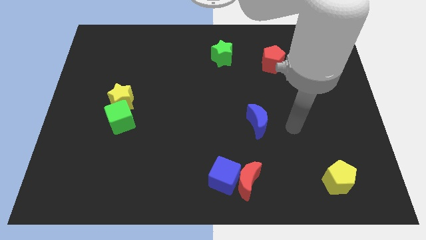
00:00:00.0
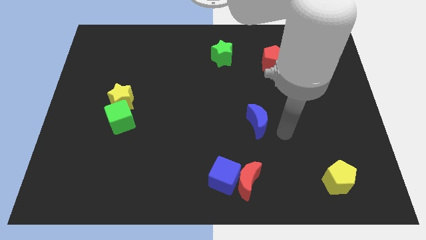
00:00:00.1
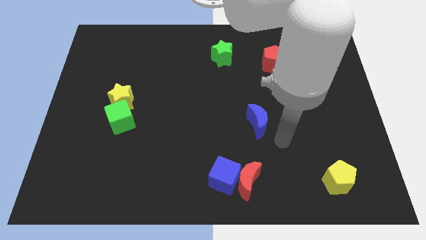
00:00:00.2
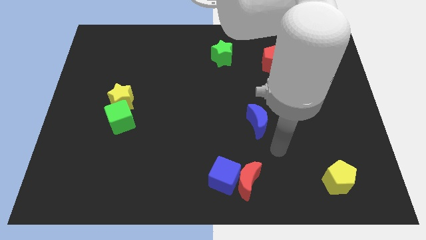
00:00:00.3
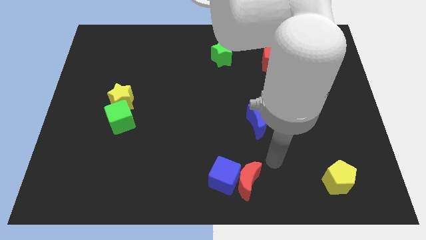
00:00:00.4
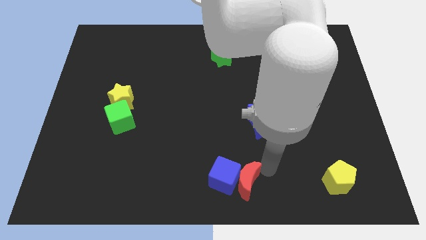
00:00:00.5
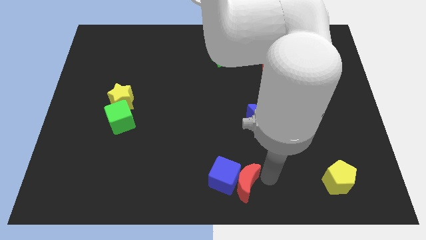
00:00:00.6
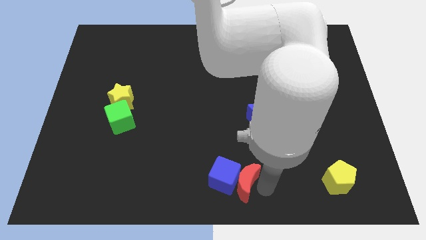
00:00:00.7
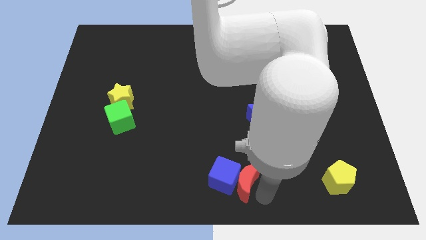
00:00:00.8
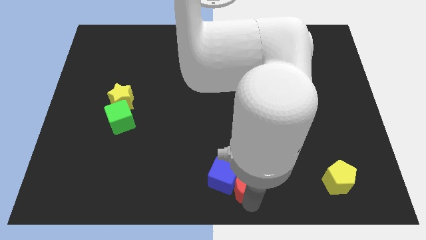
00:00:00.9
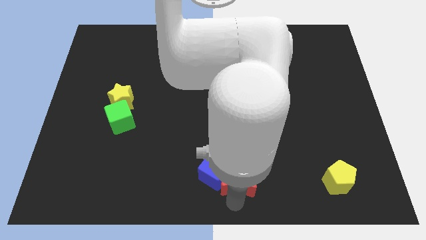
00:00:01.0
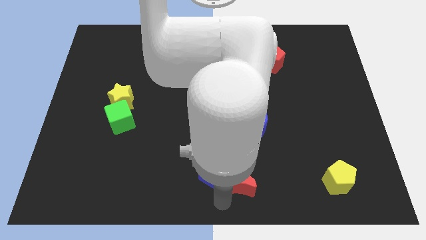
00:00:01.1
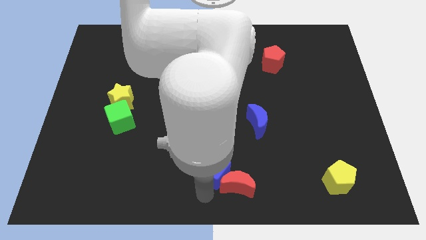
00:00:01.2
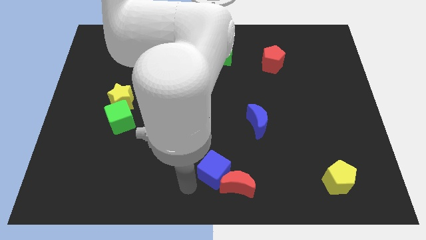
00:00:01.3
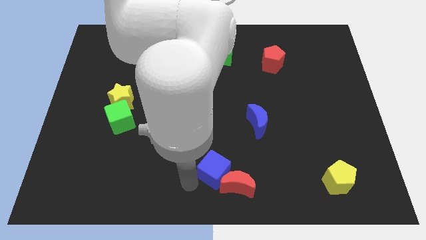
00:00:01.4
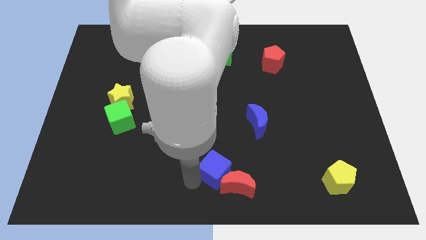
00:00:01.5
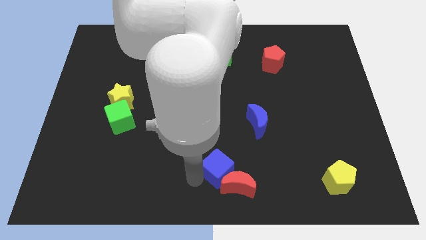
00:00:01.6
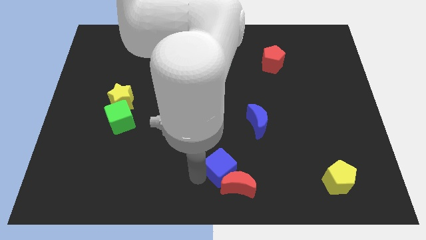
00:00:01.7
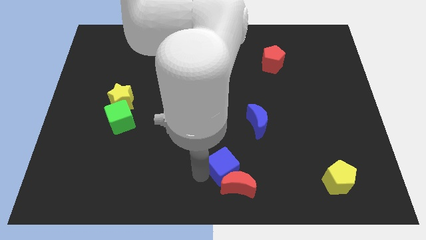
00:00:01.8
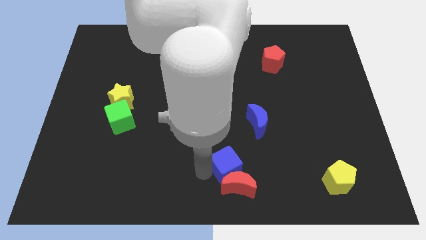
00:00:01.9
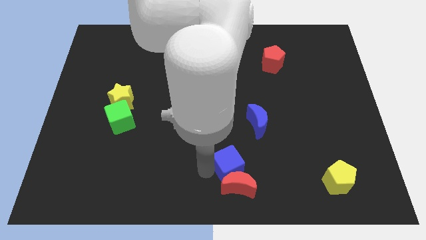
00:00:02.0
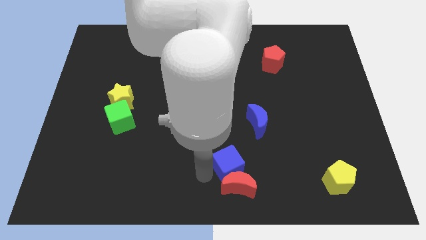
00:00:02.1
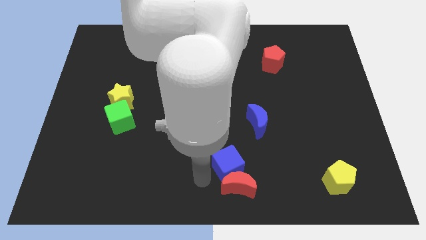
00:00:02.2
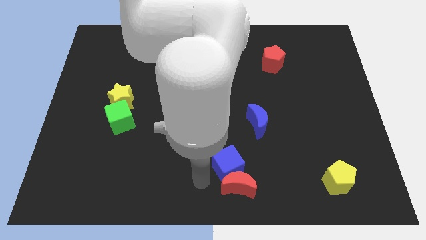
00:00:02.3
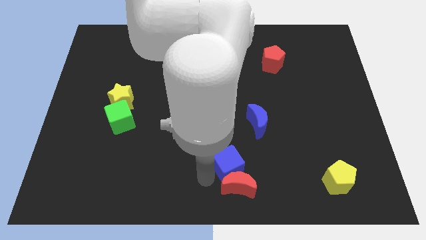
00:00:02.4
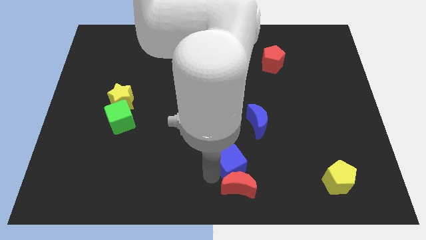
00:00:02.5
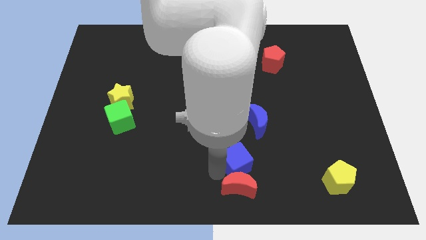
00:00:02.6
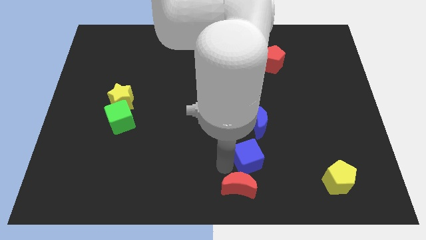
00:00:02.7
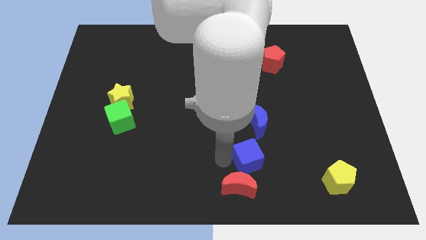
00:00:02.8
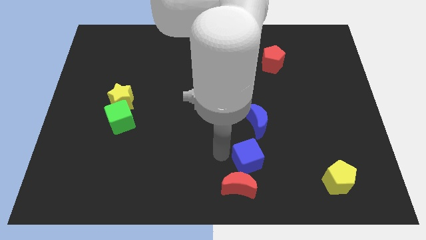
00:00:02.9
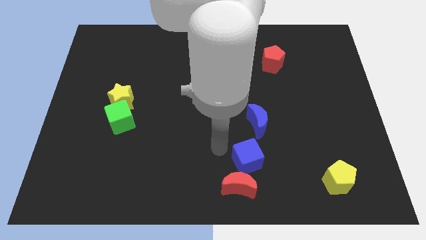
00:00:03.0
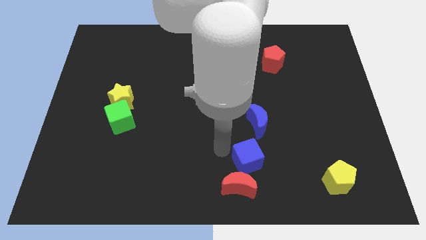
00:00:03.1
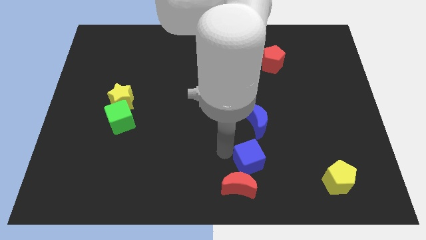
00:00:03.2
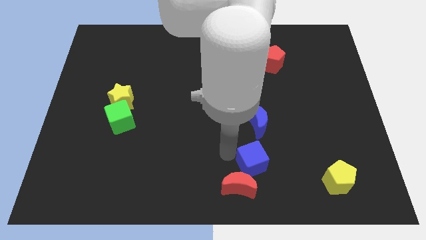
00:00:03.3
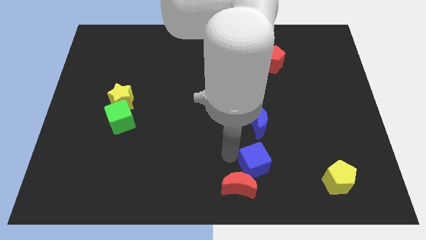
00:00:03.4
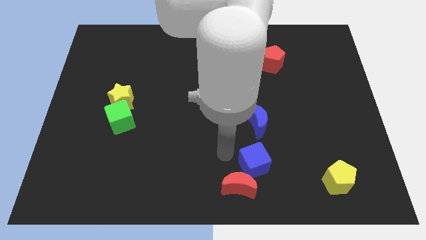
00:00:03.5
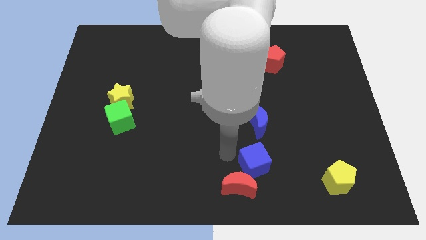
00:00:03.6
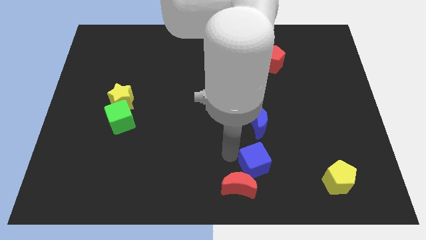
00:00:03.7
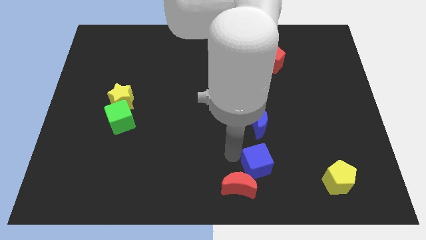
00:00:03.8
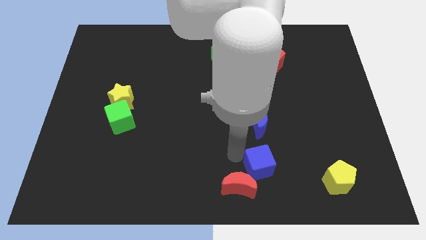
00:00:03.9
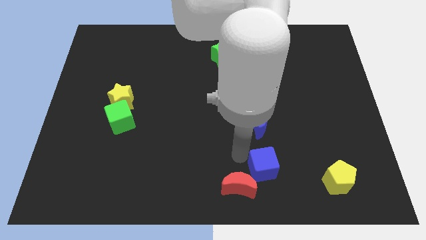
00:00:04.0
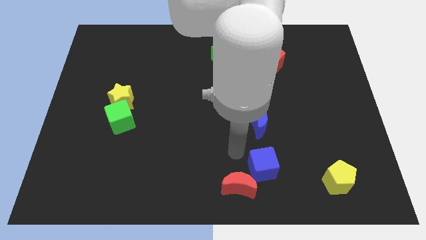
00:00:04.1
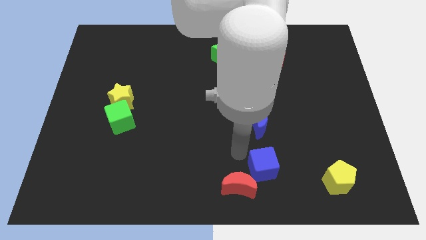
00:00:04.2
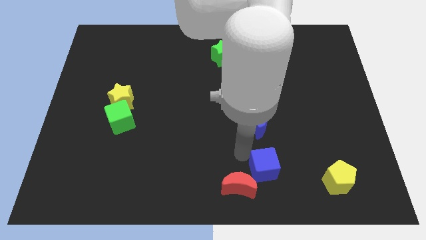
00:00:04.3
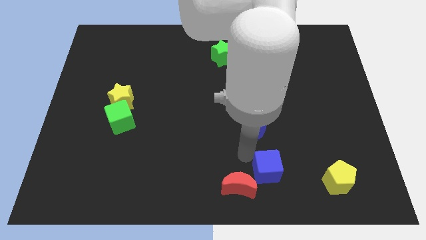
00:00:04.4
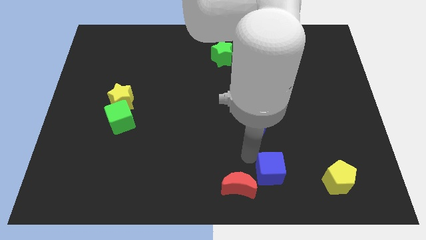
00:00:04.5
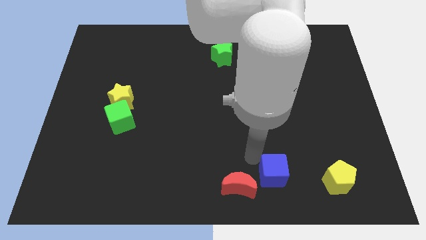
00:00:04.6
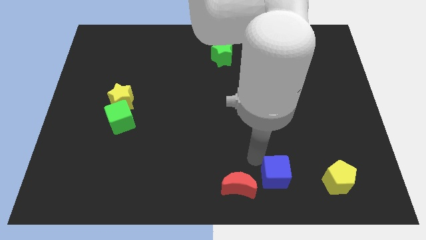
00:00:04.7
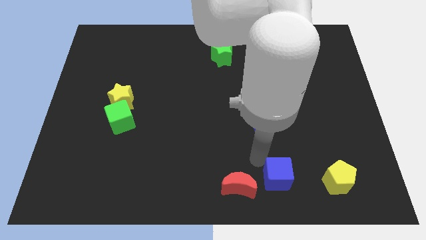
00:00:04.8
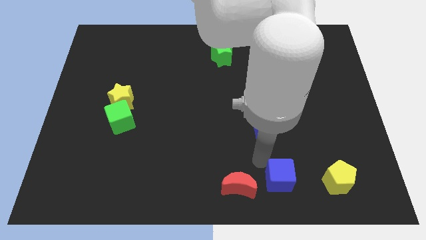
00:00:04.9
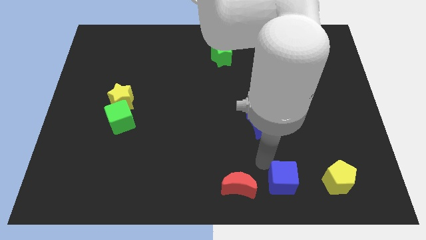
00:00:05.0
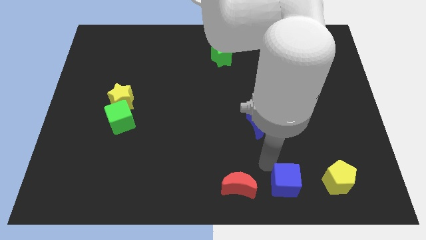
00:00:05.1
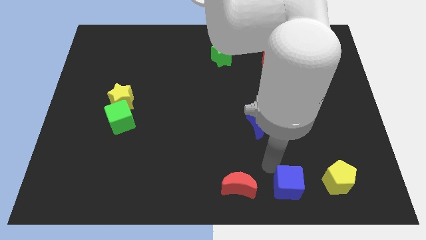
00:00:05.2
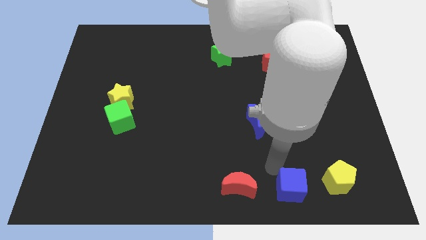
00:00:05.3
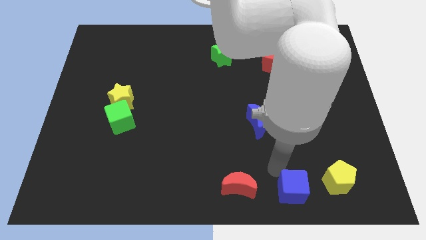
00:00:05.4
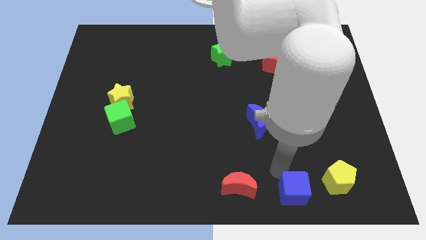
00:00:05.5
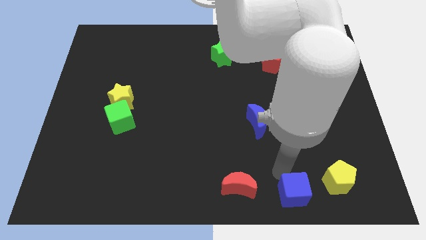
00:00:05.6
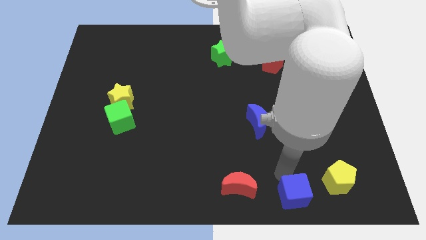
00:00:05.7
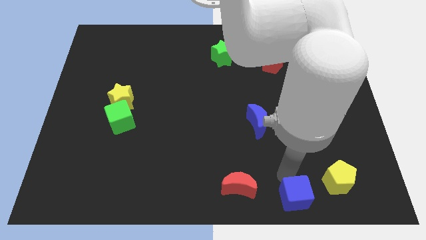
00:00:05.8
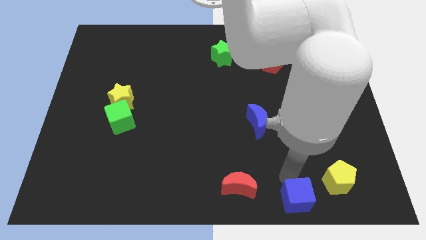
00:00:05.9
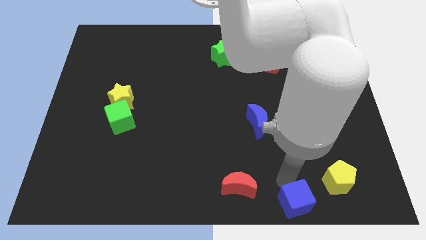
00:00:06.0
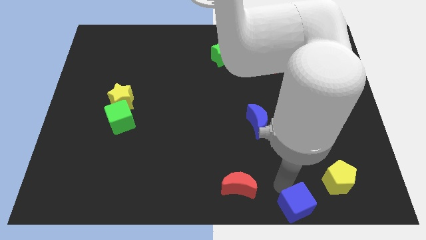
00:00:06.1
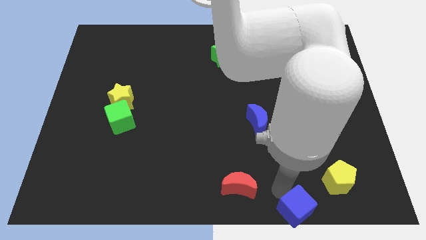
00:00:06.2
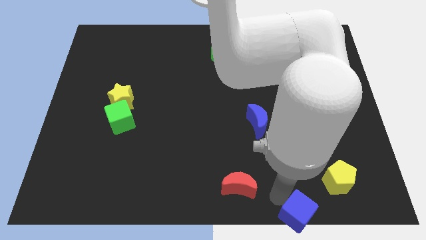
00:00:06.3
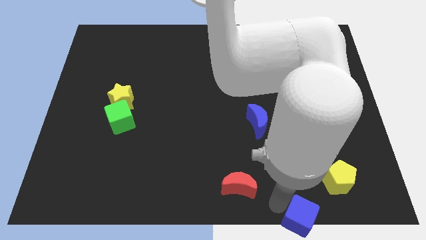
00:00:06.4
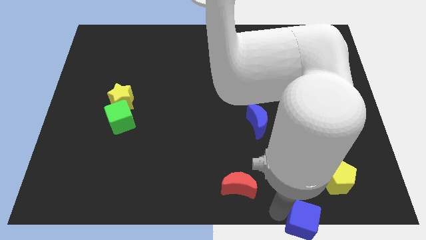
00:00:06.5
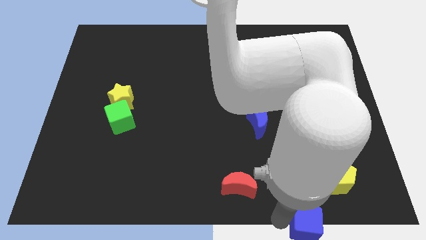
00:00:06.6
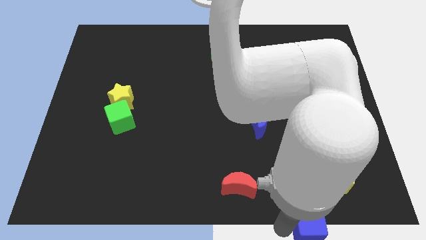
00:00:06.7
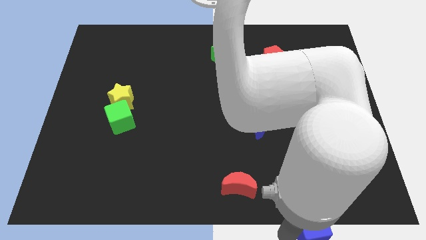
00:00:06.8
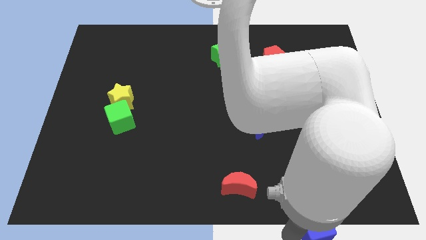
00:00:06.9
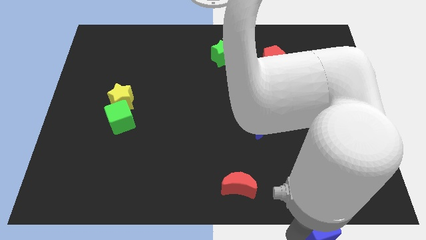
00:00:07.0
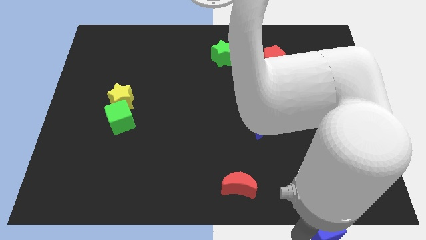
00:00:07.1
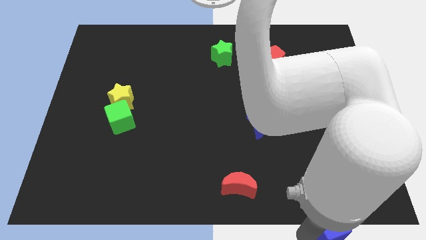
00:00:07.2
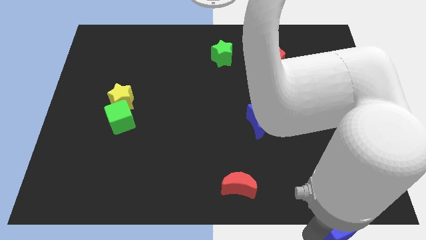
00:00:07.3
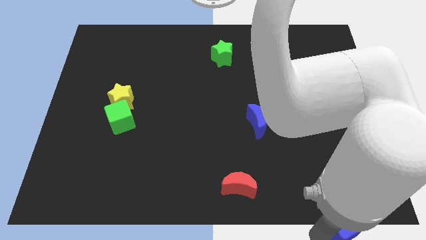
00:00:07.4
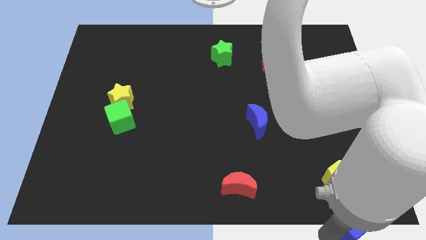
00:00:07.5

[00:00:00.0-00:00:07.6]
push the blue cube to the bottom right
